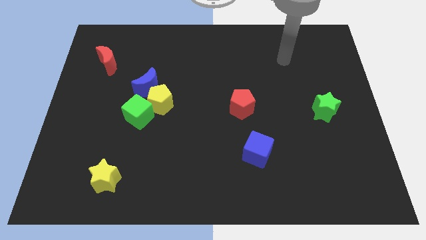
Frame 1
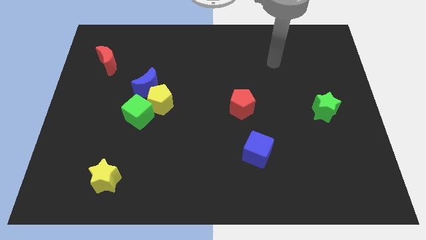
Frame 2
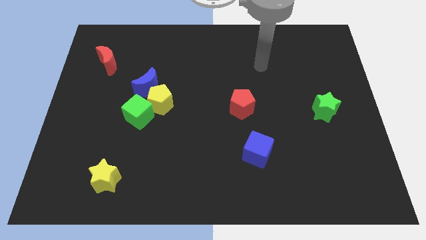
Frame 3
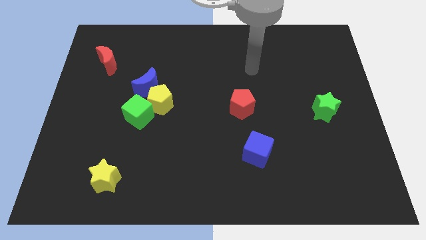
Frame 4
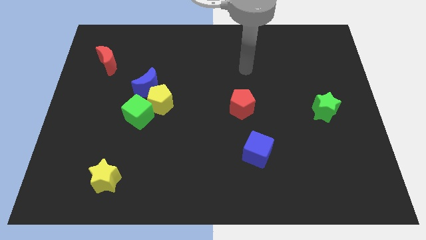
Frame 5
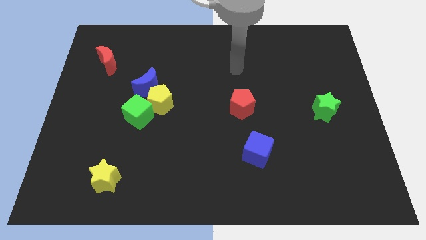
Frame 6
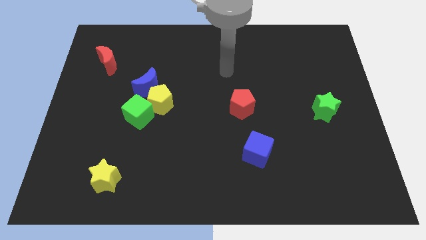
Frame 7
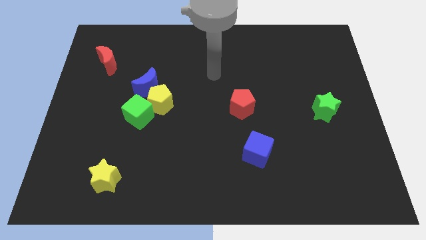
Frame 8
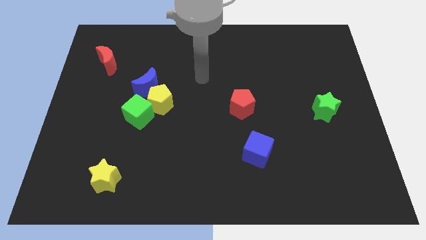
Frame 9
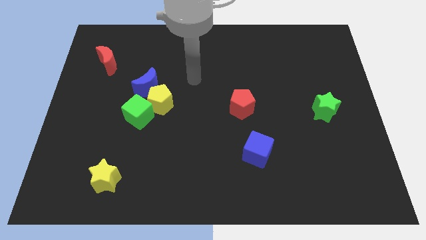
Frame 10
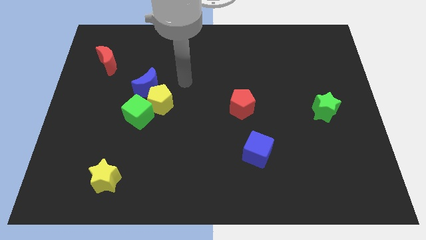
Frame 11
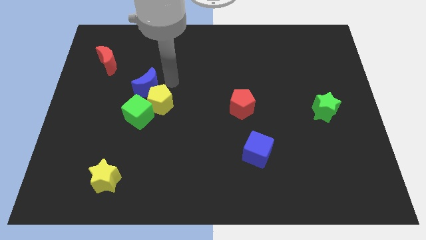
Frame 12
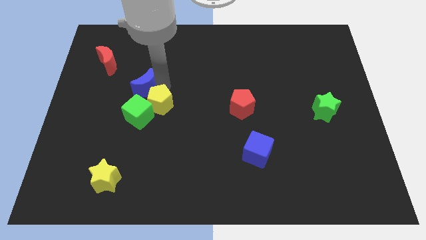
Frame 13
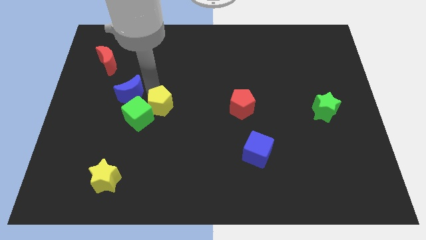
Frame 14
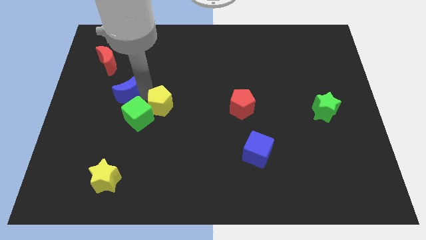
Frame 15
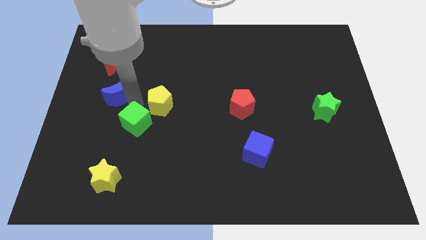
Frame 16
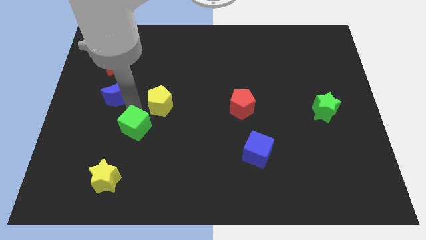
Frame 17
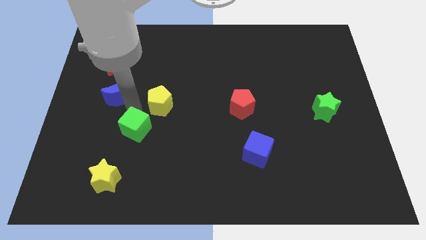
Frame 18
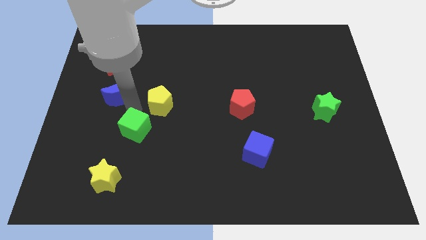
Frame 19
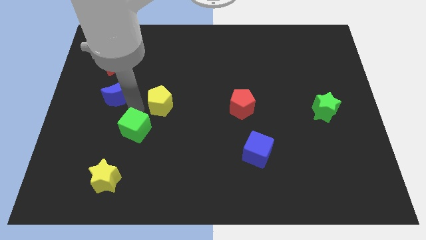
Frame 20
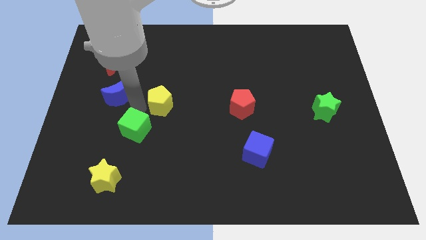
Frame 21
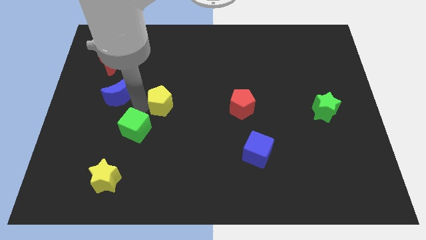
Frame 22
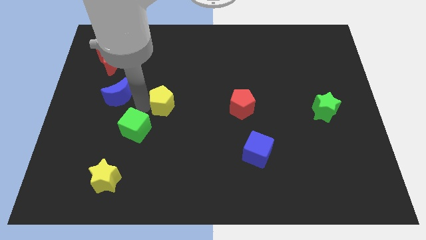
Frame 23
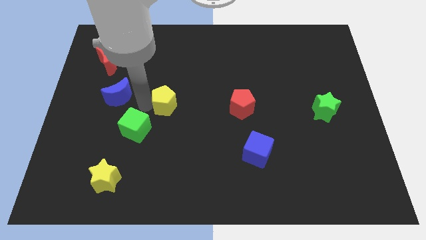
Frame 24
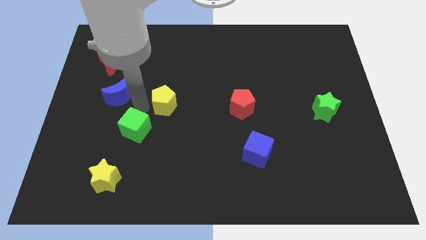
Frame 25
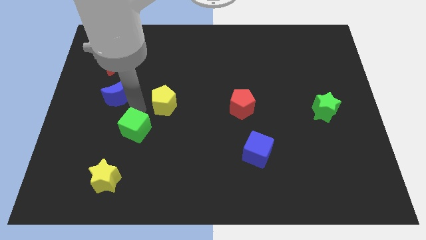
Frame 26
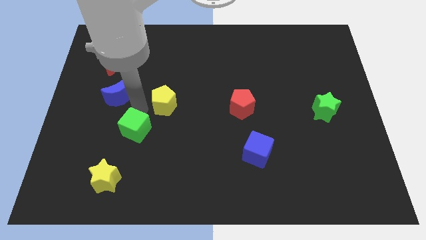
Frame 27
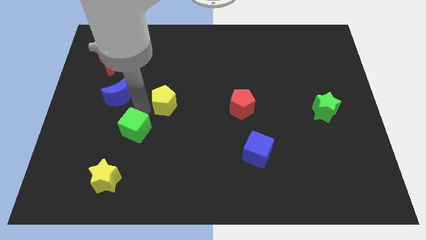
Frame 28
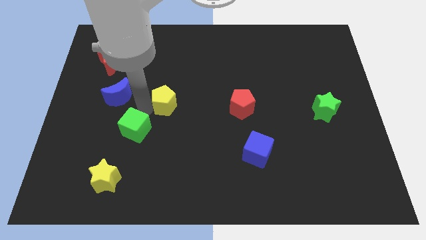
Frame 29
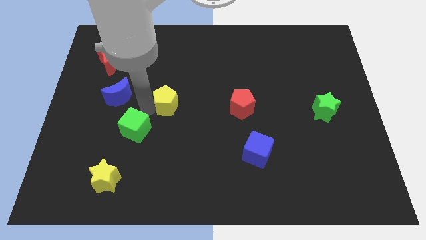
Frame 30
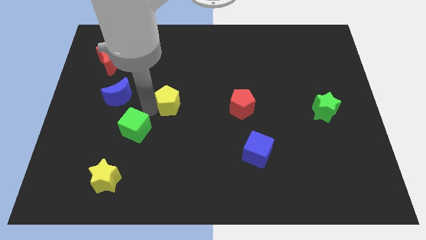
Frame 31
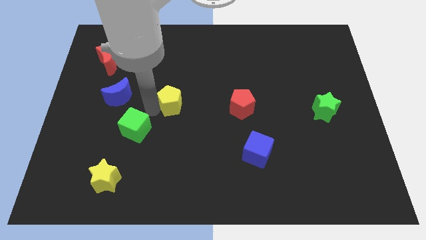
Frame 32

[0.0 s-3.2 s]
pull the yellow pentagon apart from the green cube and blue moon

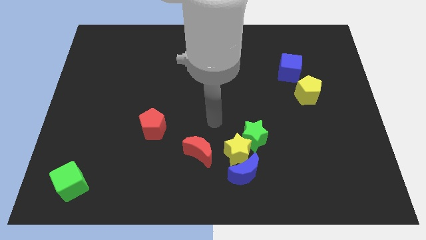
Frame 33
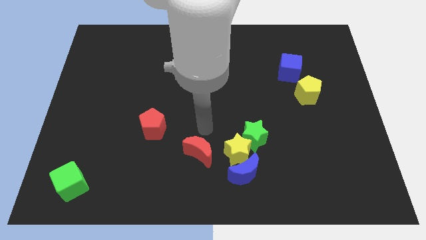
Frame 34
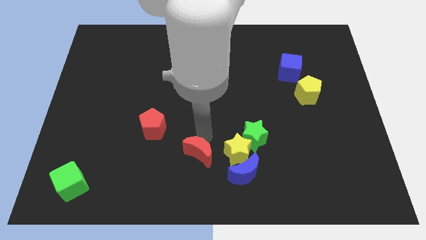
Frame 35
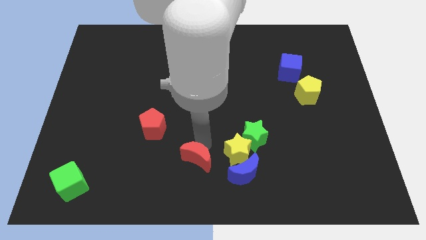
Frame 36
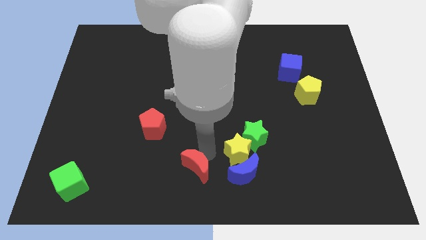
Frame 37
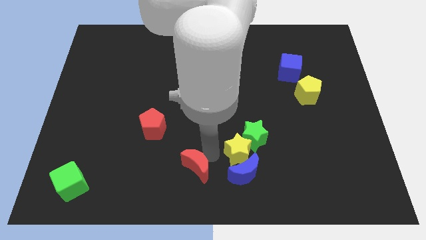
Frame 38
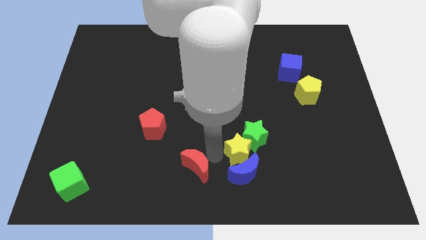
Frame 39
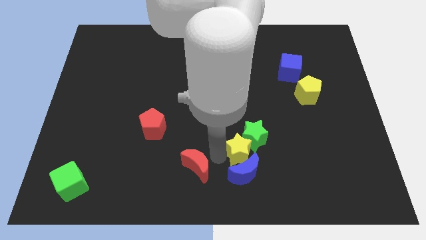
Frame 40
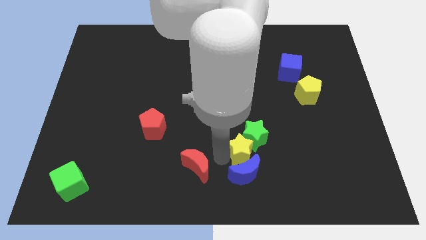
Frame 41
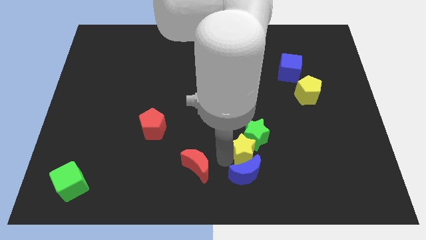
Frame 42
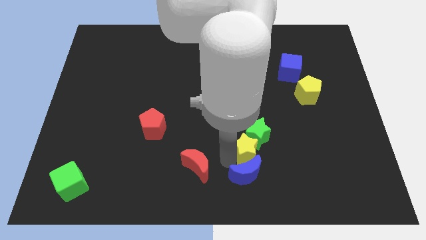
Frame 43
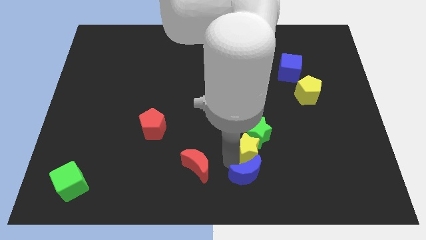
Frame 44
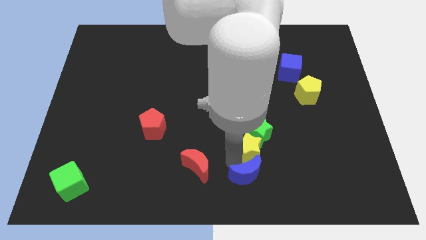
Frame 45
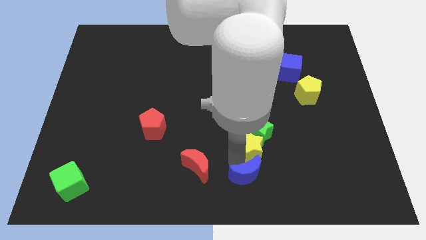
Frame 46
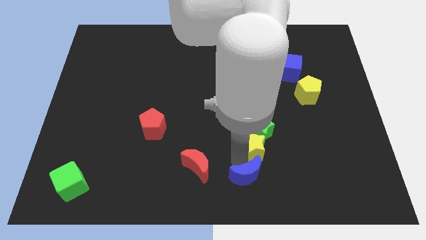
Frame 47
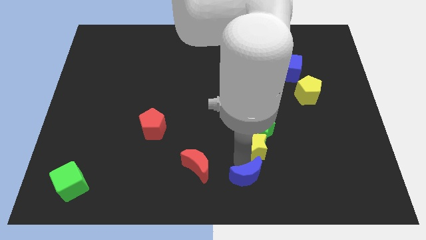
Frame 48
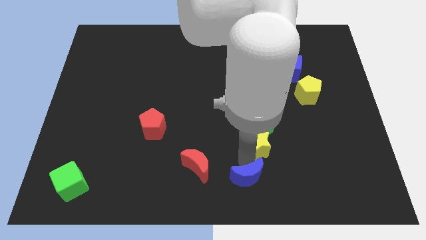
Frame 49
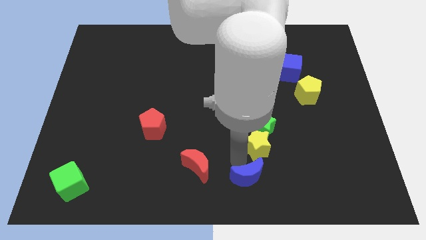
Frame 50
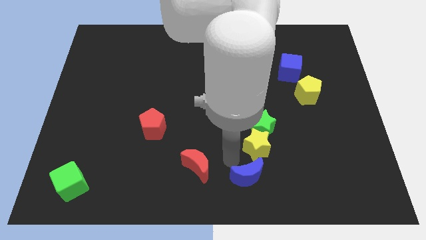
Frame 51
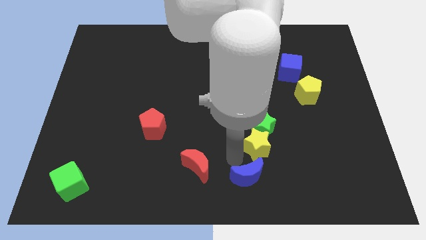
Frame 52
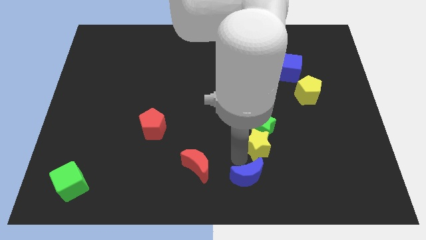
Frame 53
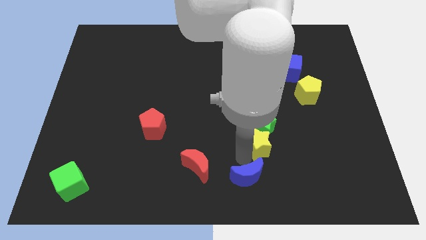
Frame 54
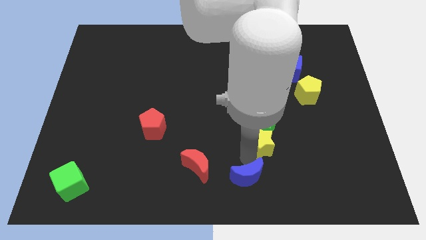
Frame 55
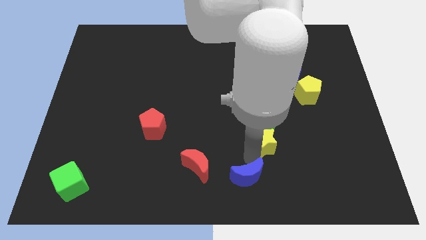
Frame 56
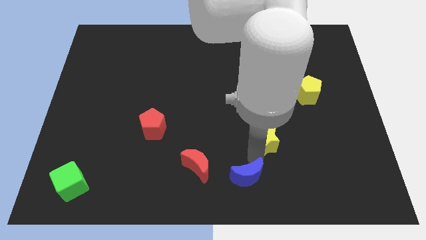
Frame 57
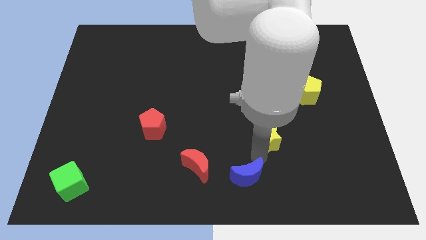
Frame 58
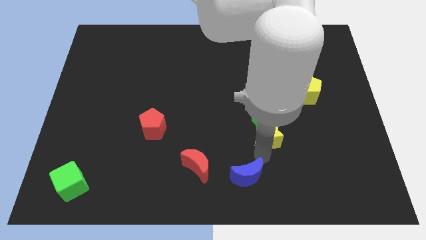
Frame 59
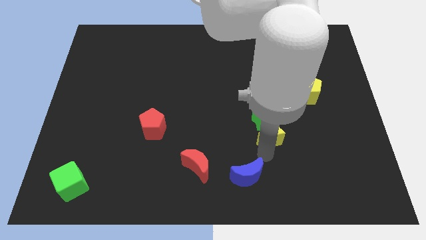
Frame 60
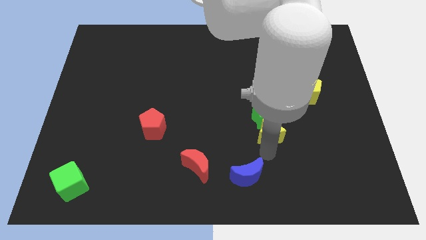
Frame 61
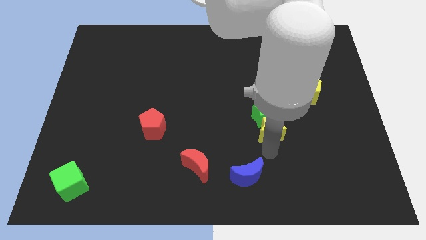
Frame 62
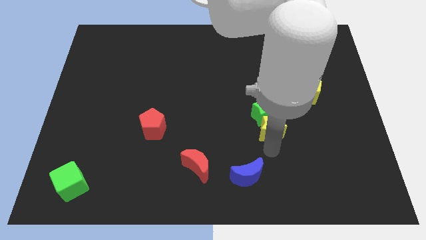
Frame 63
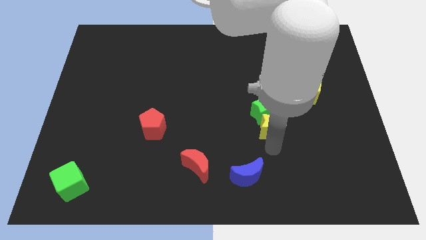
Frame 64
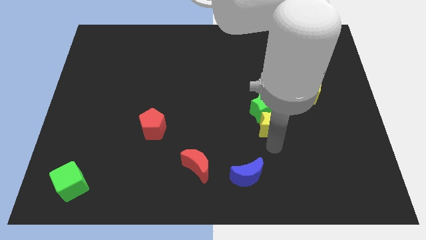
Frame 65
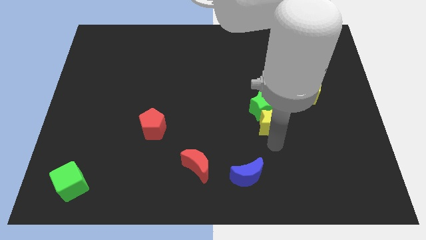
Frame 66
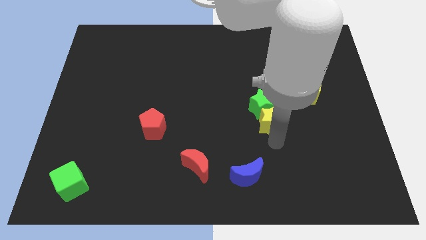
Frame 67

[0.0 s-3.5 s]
separate the yellow star from the clump

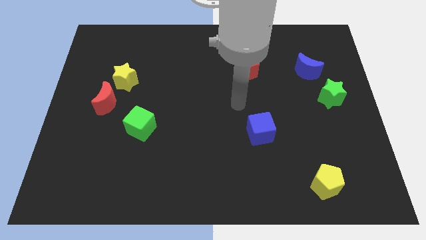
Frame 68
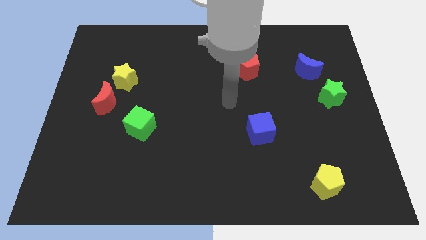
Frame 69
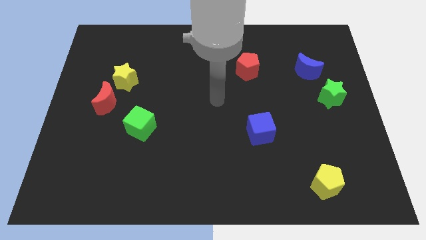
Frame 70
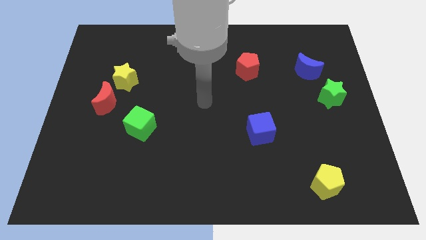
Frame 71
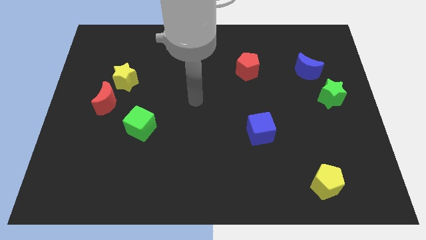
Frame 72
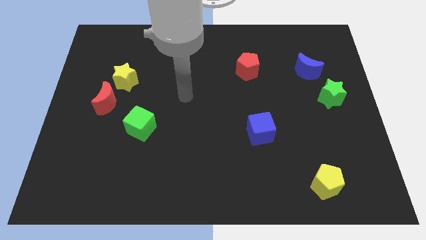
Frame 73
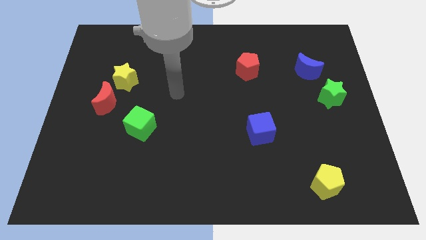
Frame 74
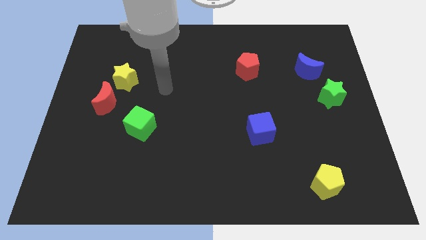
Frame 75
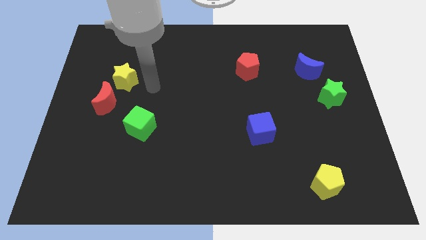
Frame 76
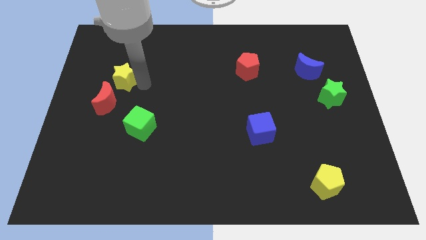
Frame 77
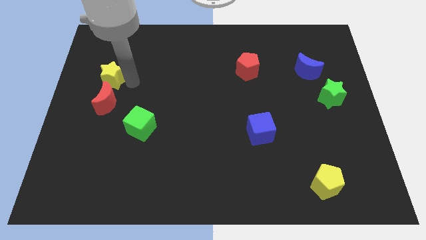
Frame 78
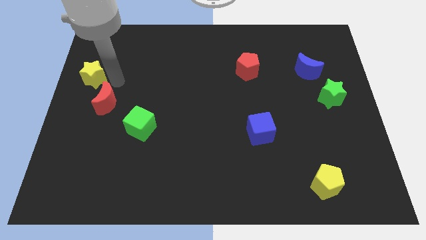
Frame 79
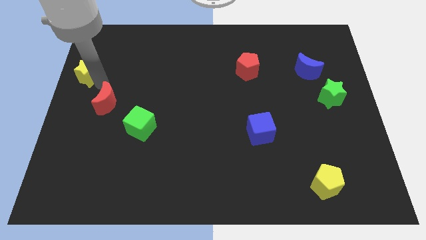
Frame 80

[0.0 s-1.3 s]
separate the red moon from the yellow star

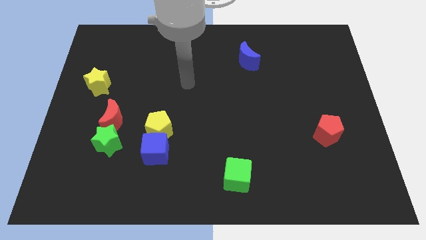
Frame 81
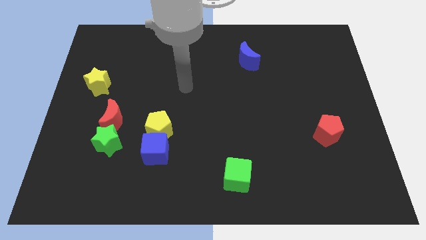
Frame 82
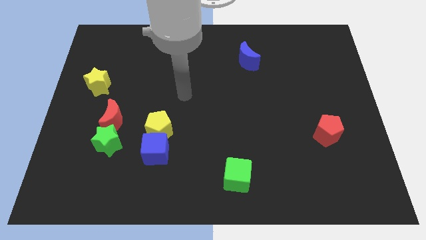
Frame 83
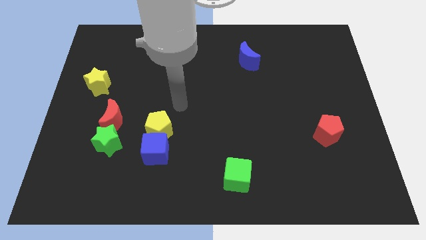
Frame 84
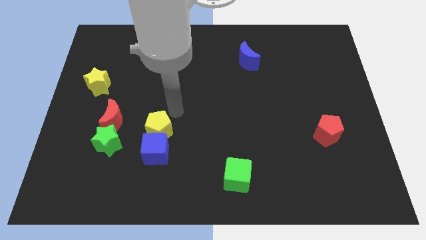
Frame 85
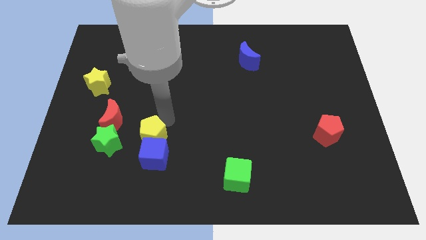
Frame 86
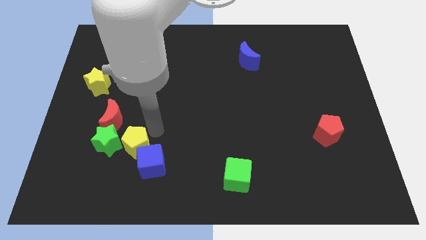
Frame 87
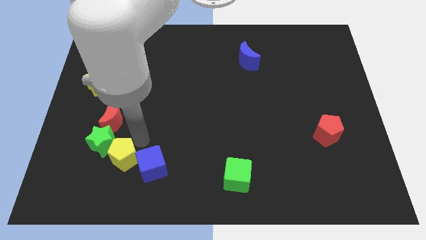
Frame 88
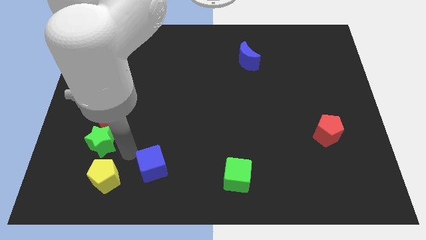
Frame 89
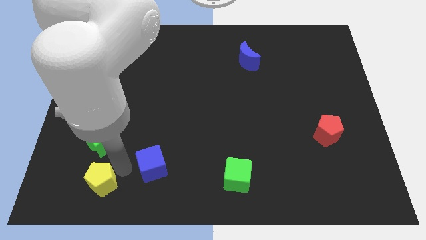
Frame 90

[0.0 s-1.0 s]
move the blue cube away from the yellow pentagon

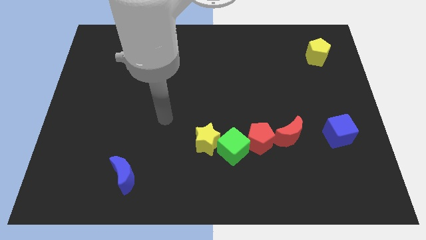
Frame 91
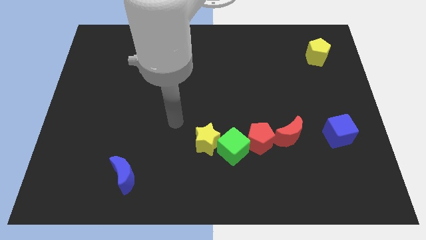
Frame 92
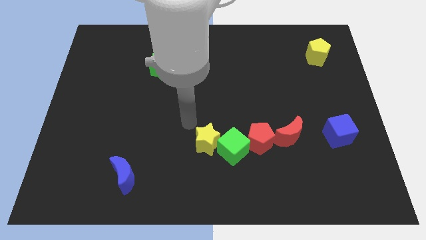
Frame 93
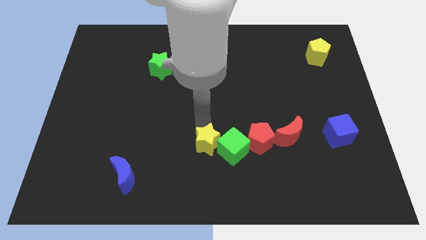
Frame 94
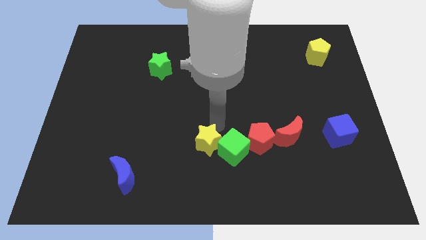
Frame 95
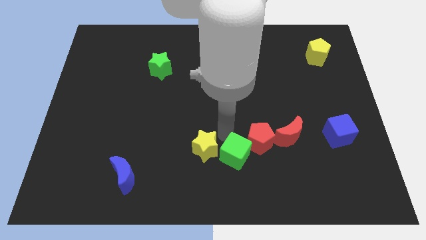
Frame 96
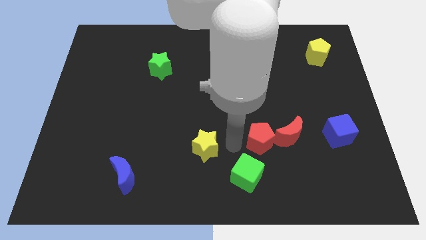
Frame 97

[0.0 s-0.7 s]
move the yellow star away from the green cube
